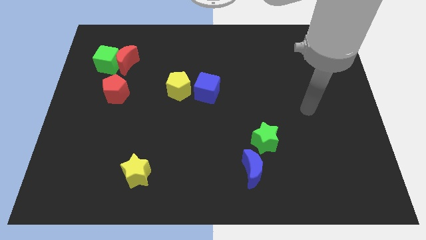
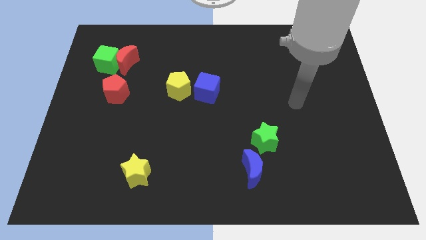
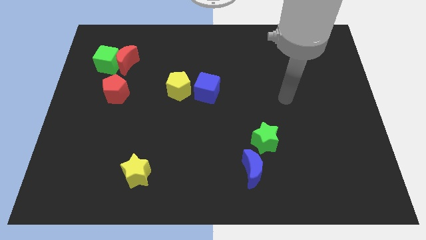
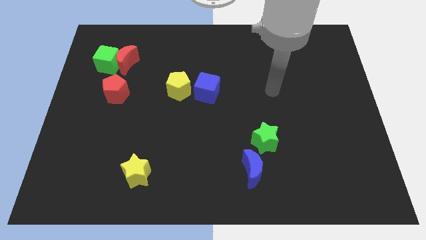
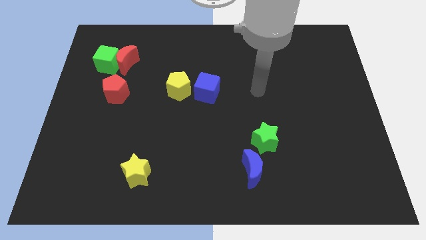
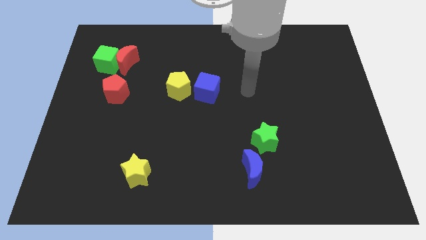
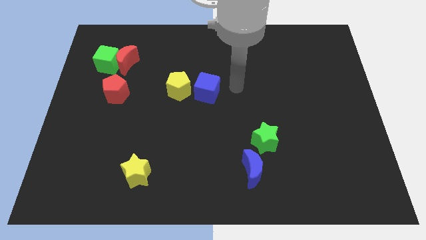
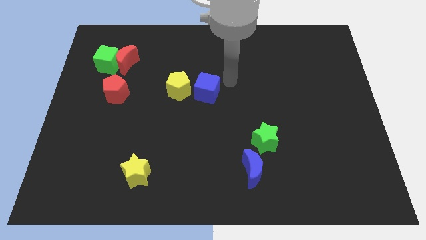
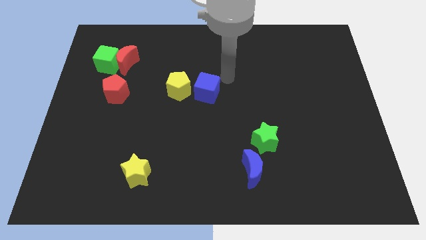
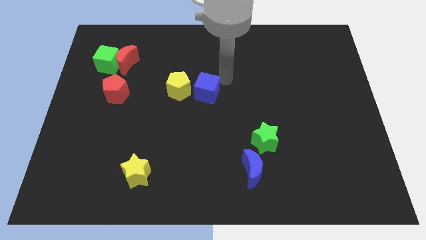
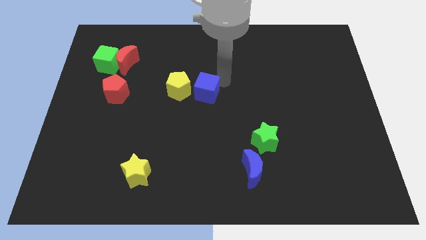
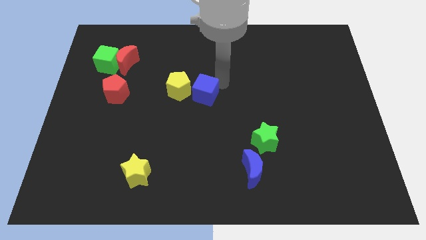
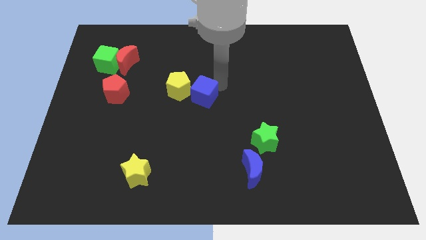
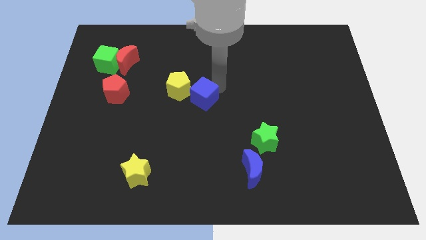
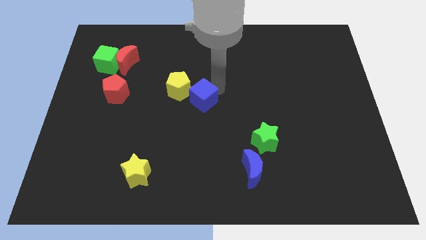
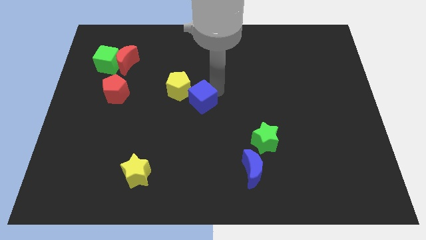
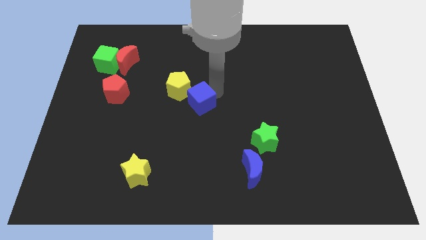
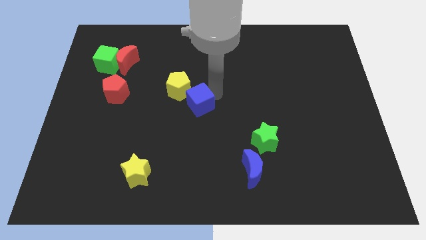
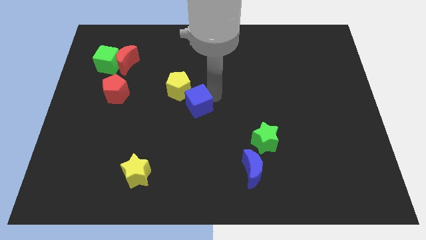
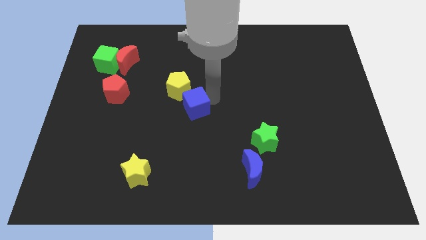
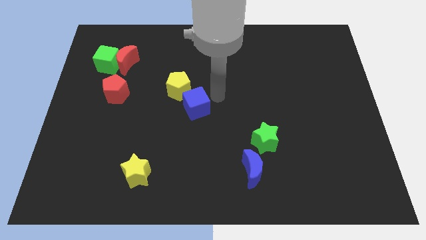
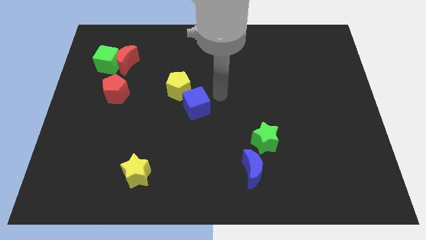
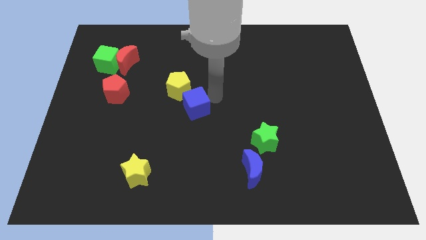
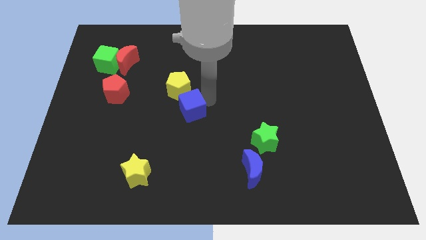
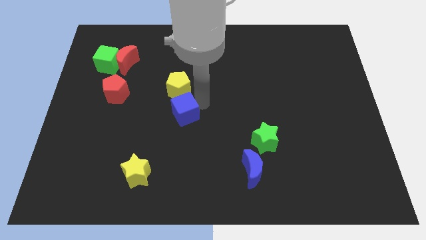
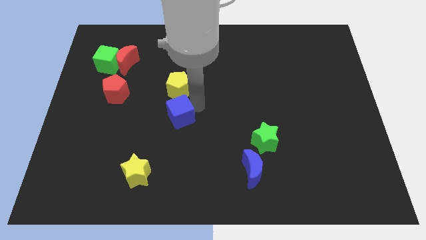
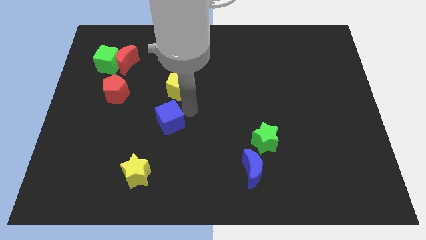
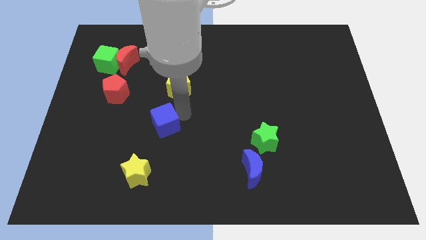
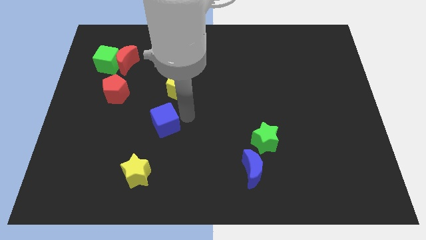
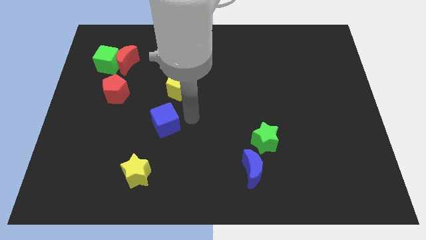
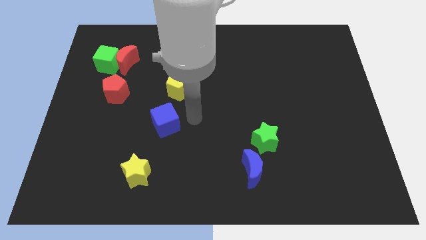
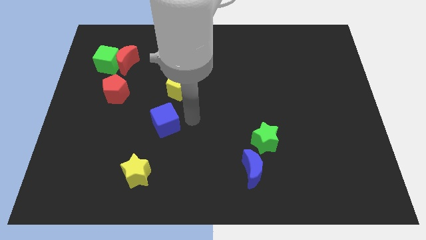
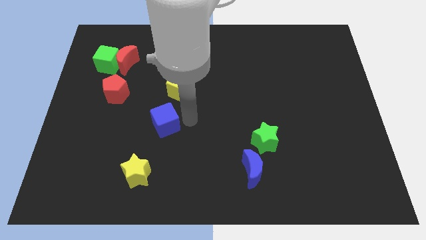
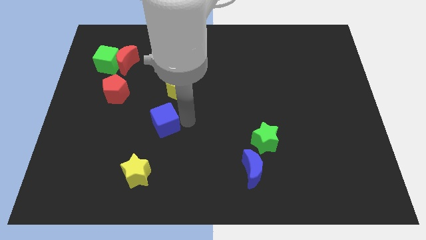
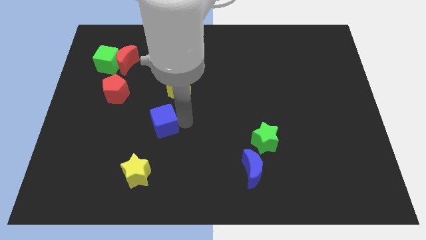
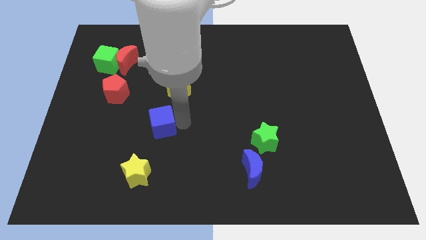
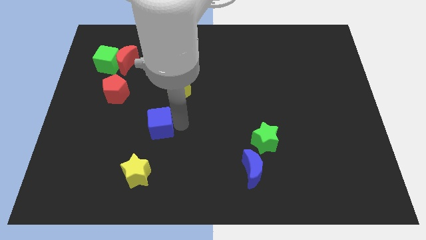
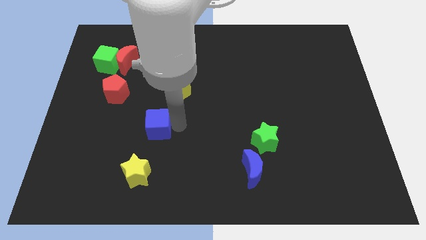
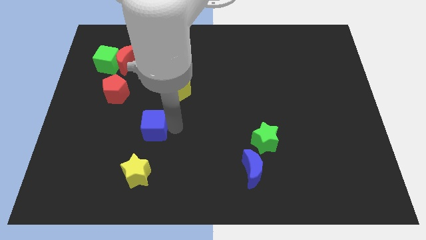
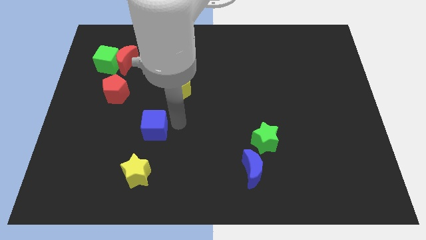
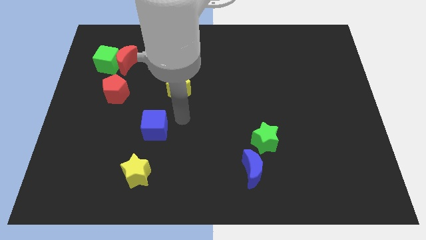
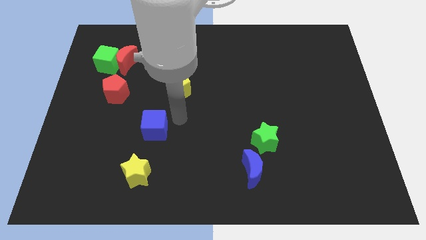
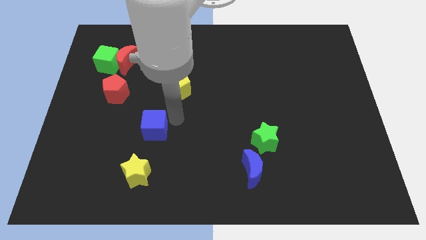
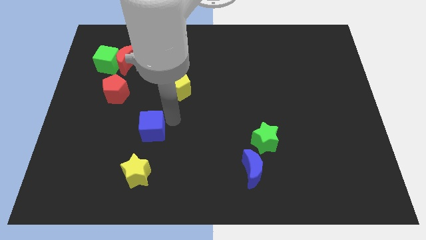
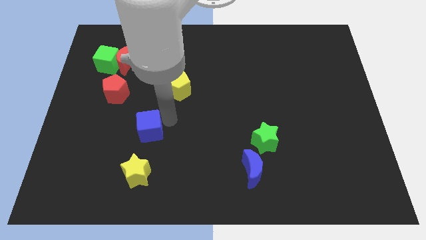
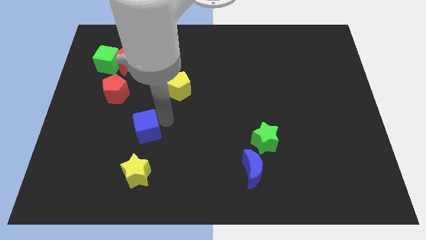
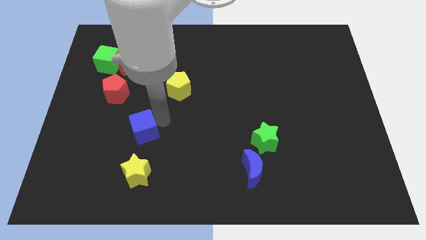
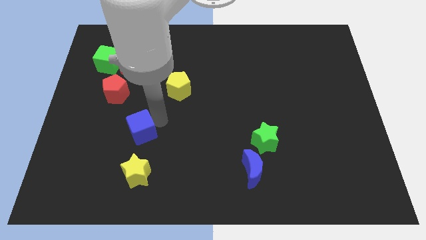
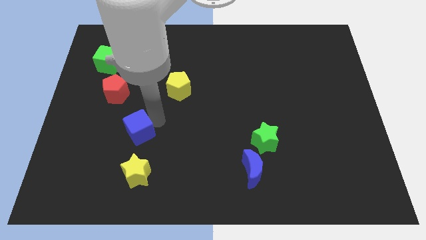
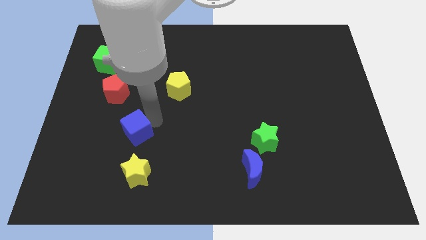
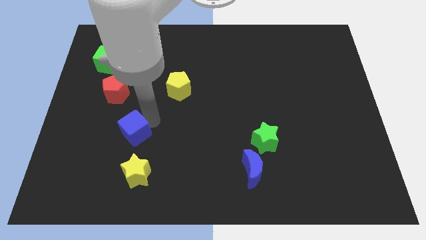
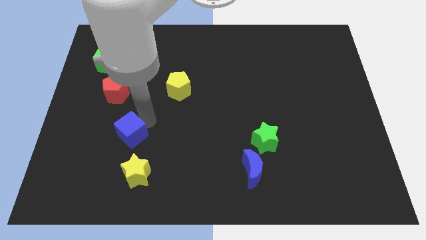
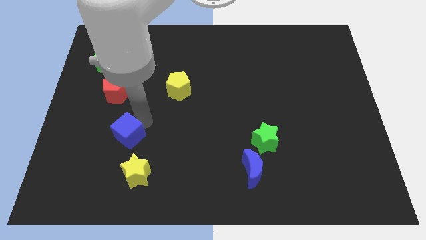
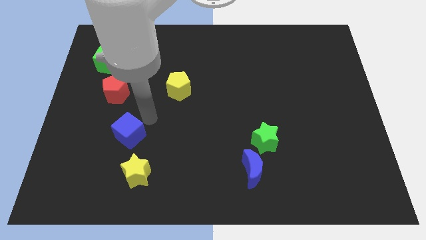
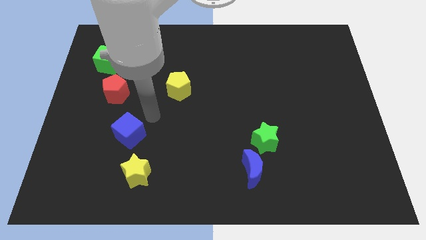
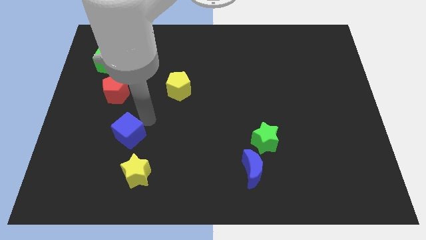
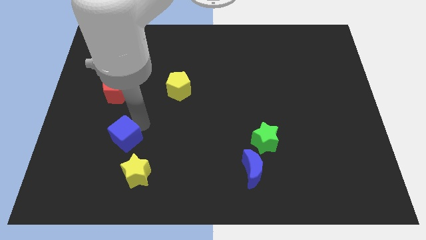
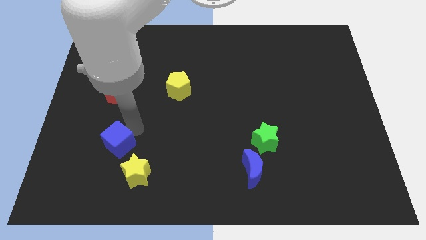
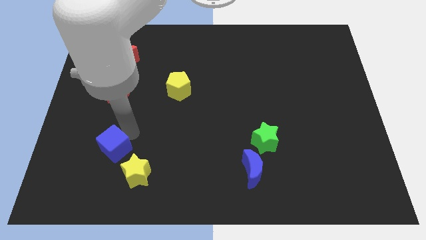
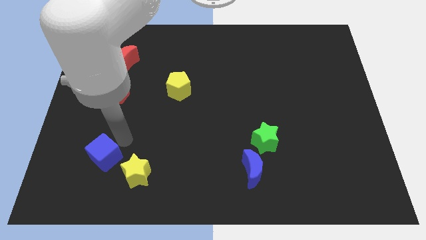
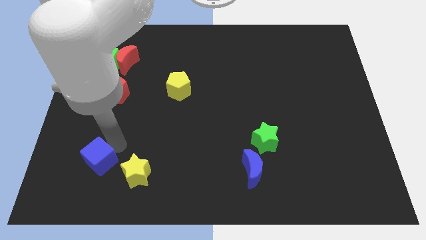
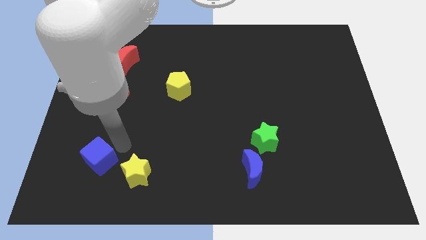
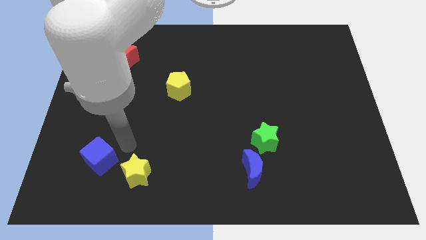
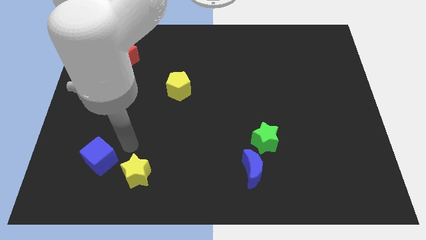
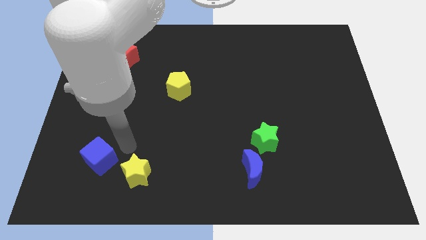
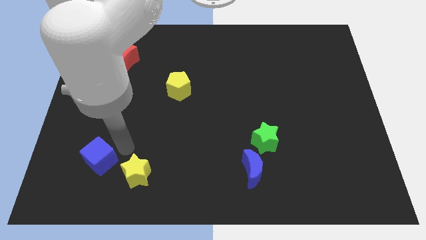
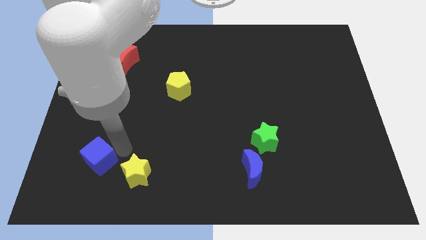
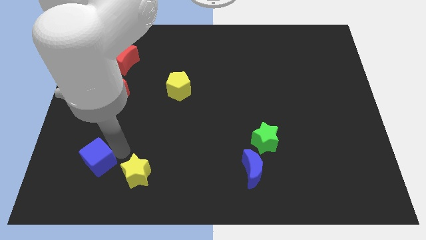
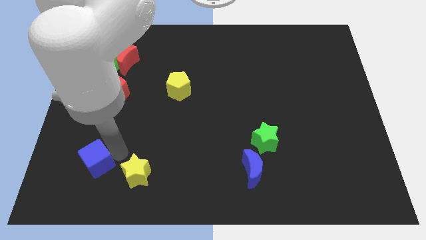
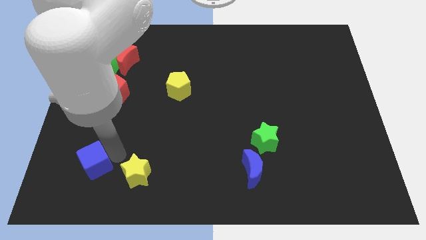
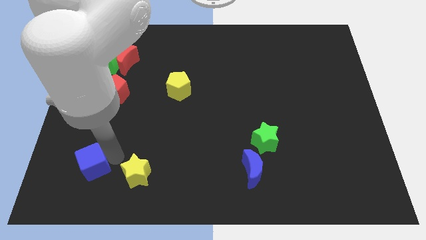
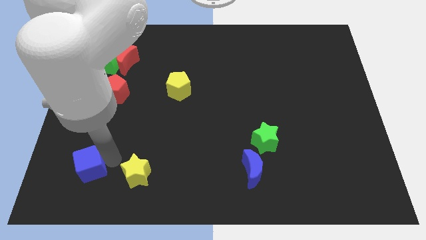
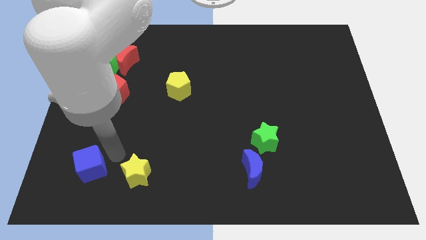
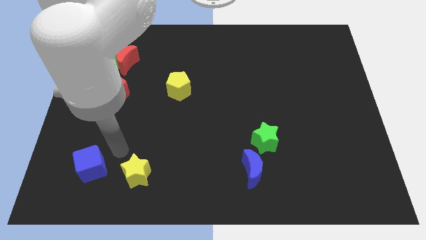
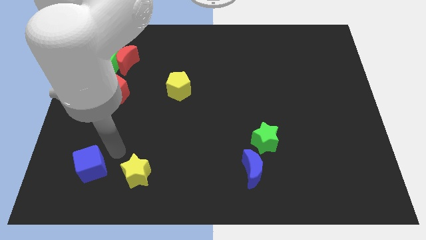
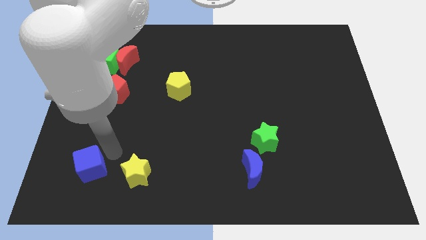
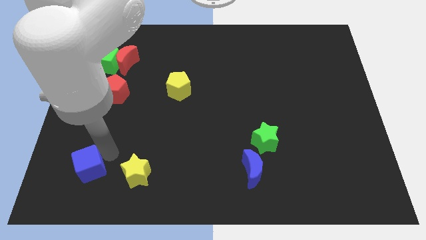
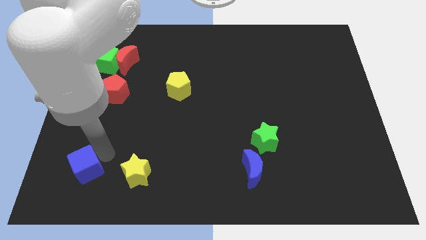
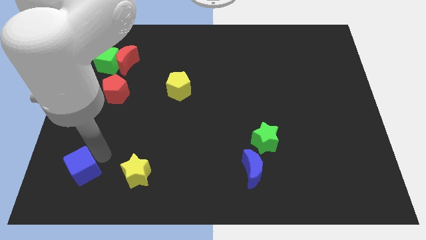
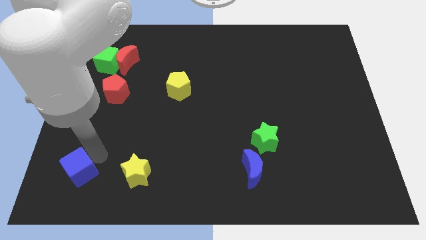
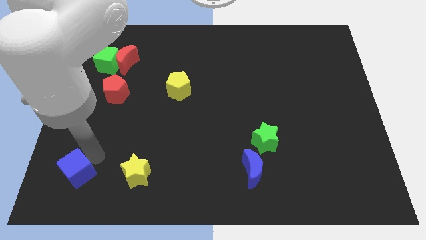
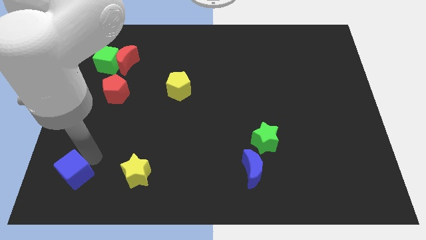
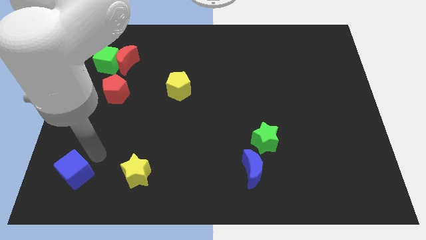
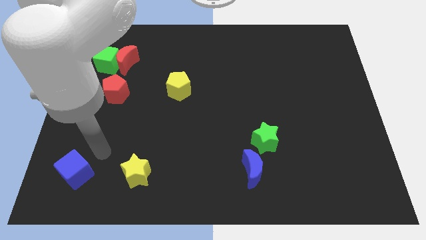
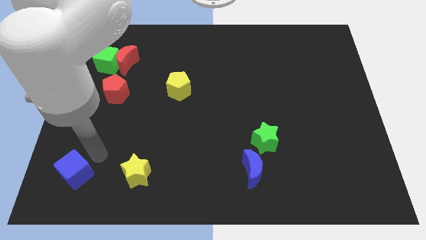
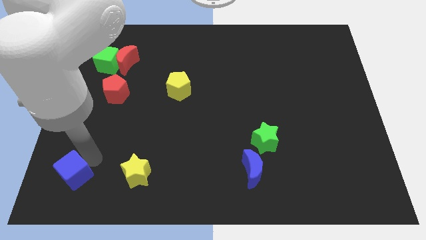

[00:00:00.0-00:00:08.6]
slide the blue cube to the bottom left of the board
